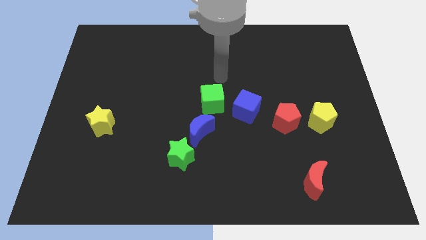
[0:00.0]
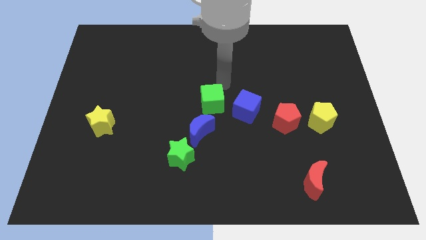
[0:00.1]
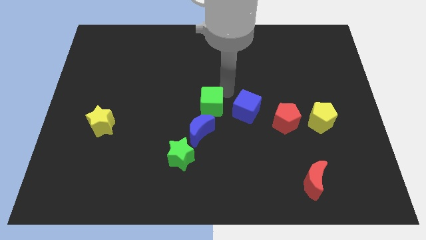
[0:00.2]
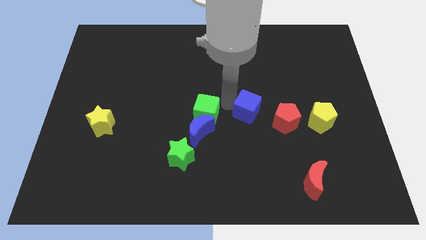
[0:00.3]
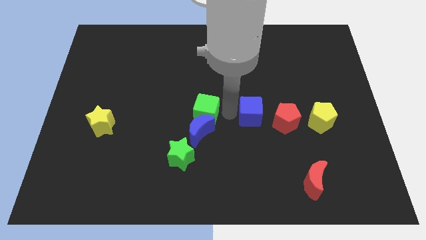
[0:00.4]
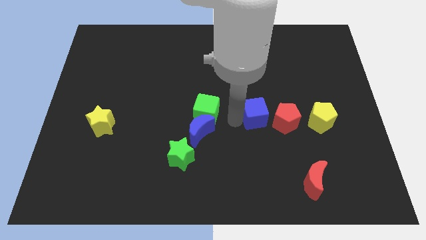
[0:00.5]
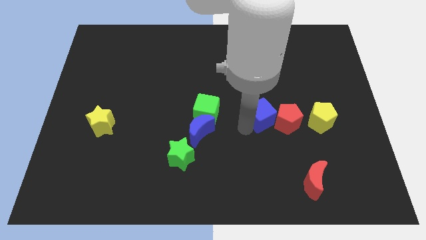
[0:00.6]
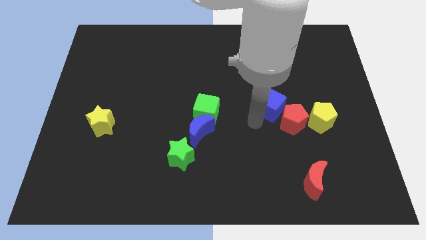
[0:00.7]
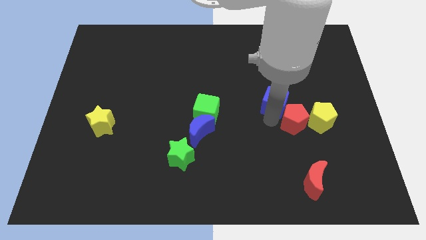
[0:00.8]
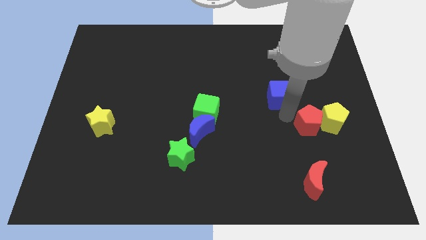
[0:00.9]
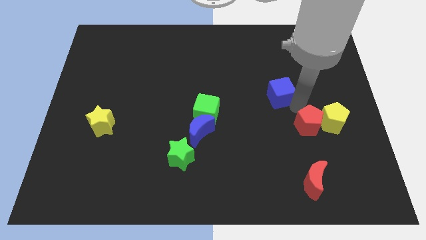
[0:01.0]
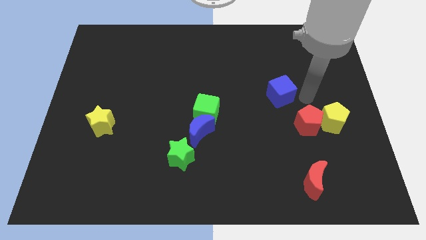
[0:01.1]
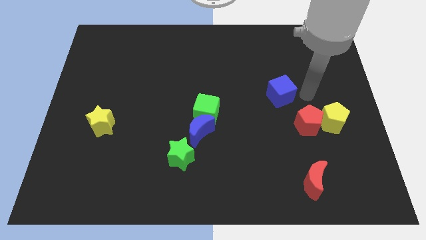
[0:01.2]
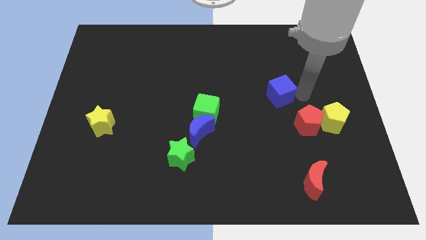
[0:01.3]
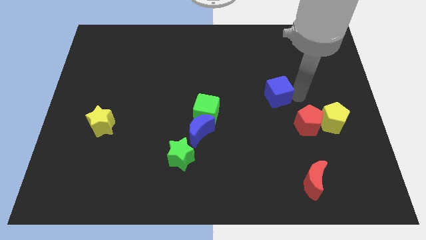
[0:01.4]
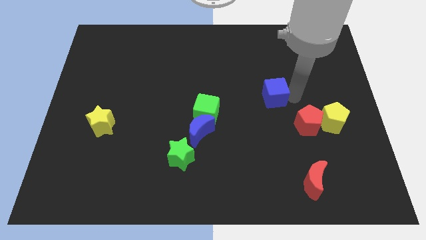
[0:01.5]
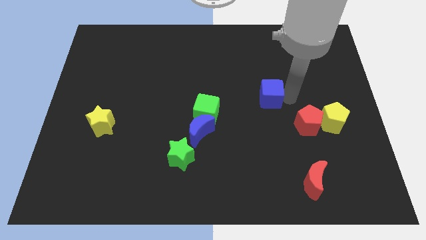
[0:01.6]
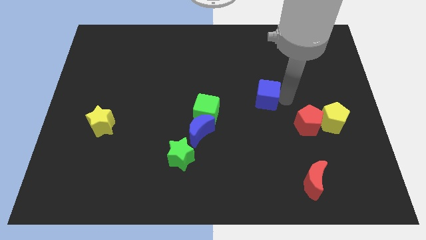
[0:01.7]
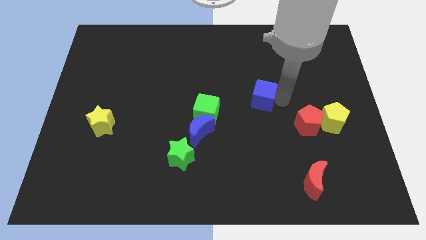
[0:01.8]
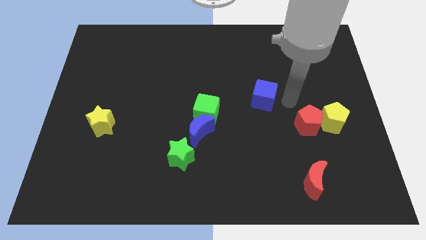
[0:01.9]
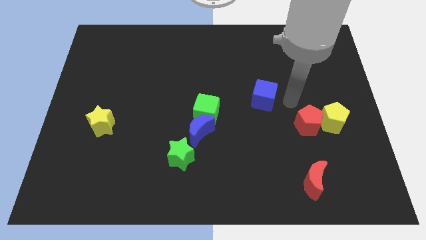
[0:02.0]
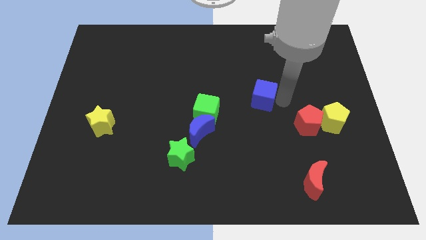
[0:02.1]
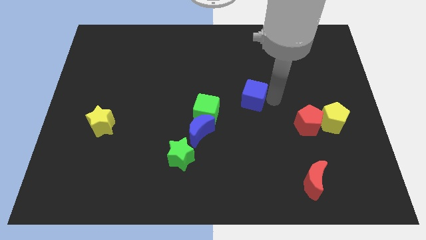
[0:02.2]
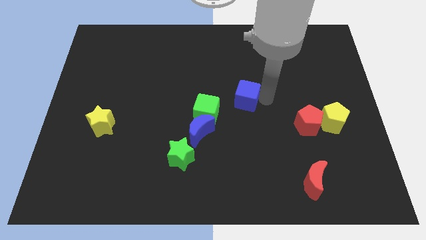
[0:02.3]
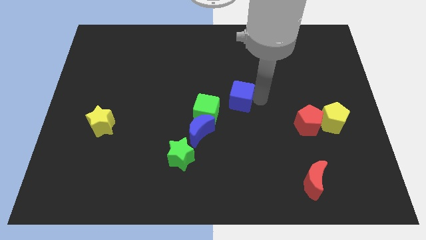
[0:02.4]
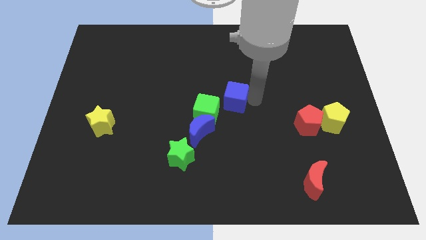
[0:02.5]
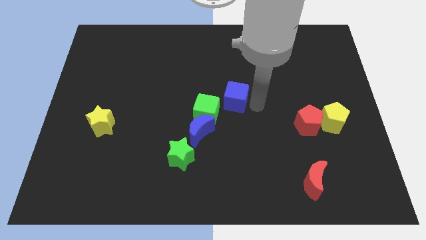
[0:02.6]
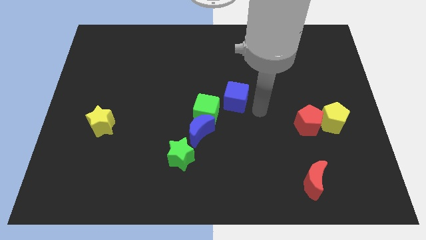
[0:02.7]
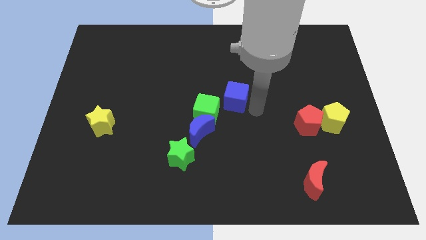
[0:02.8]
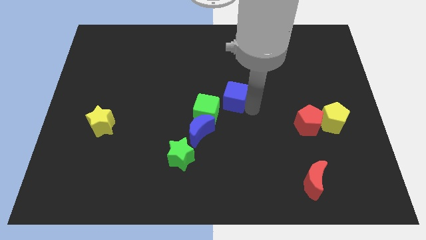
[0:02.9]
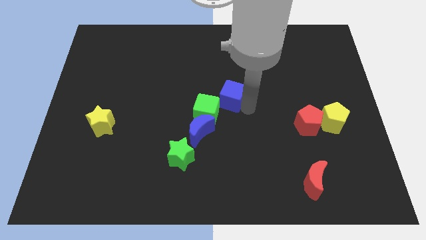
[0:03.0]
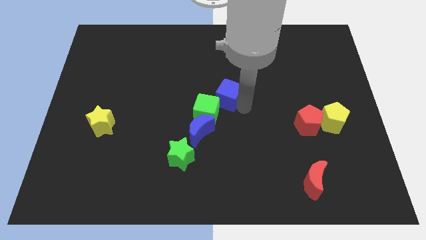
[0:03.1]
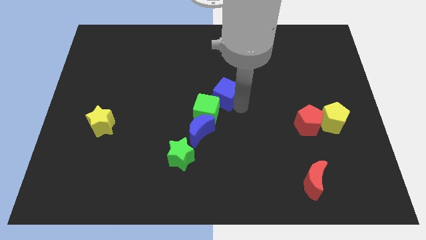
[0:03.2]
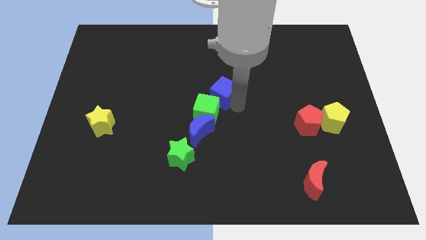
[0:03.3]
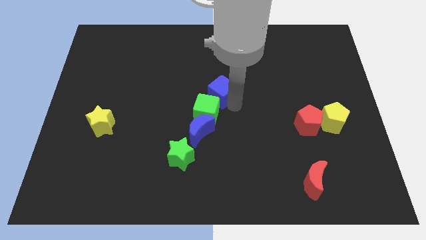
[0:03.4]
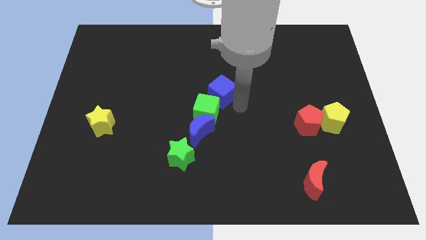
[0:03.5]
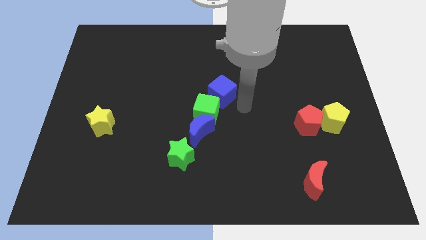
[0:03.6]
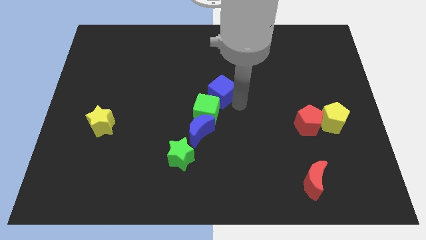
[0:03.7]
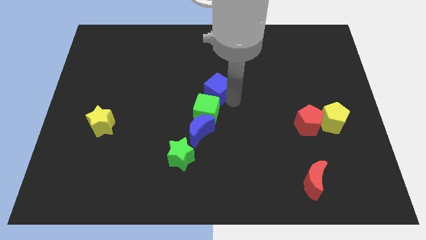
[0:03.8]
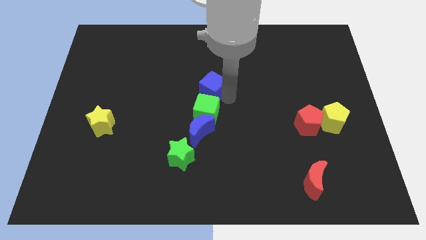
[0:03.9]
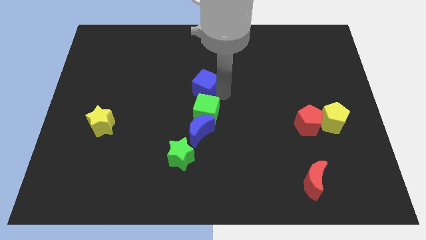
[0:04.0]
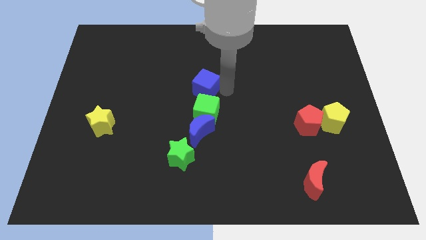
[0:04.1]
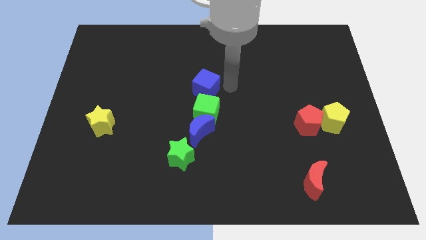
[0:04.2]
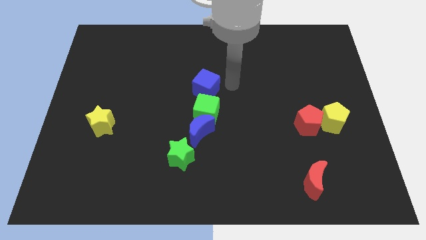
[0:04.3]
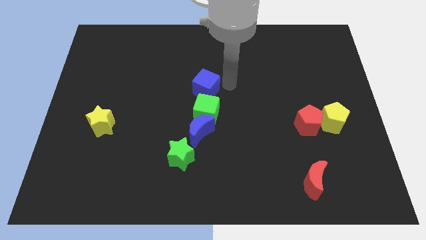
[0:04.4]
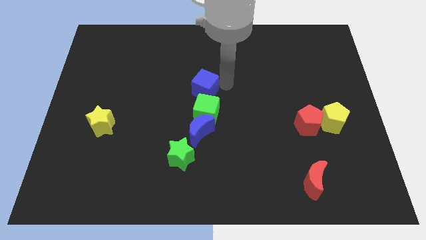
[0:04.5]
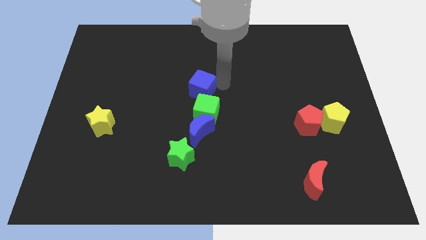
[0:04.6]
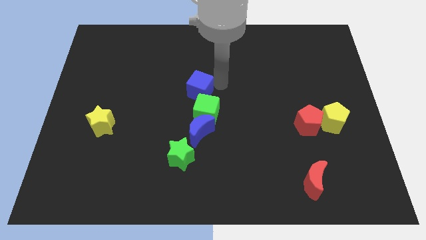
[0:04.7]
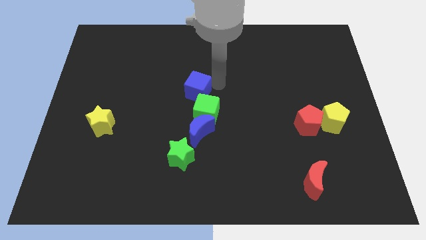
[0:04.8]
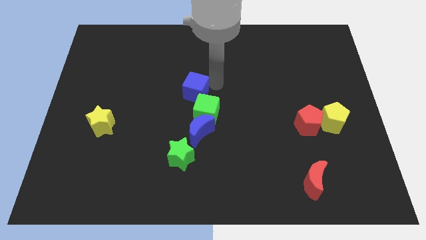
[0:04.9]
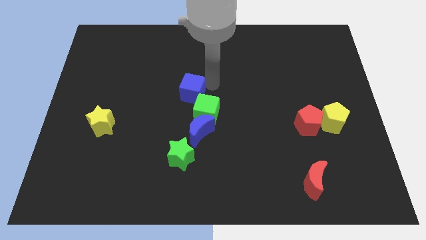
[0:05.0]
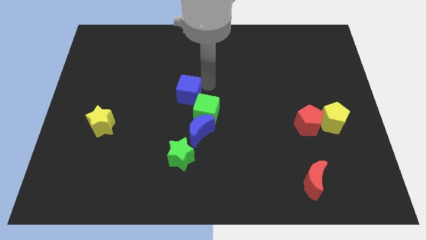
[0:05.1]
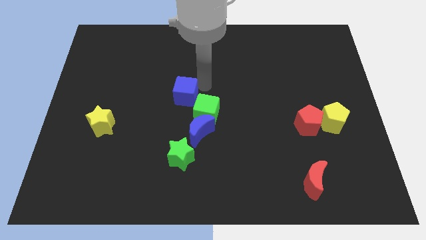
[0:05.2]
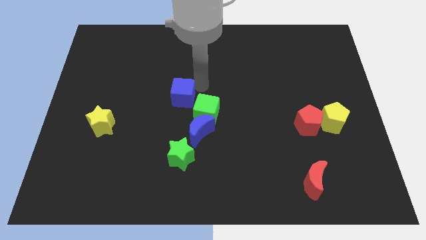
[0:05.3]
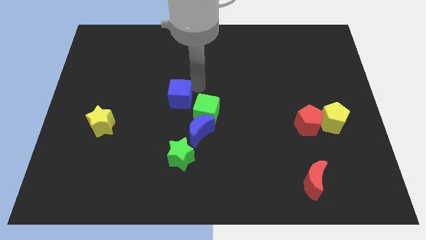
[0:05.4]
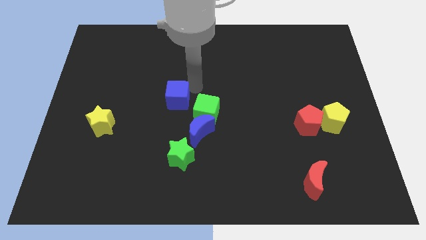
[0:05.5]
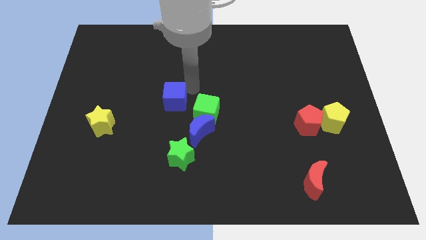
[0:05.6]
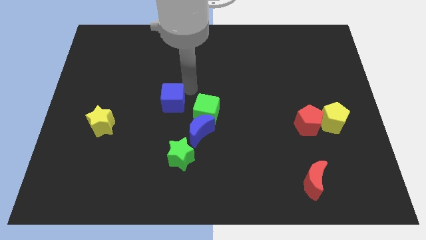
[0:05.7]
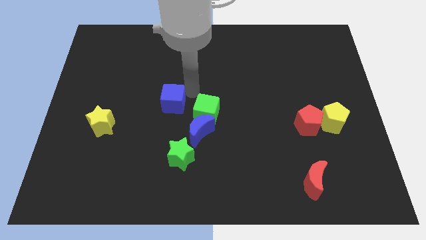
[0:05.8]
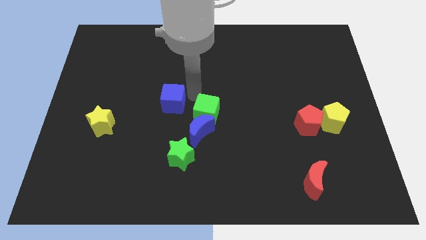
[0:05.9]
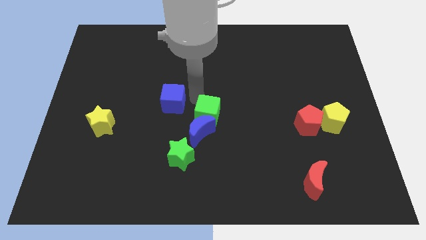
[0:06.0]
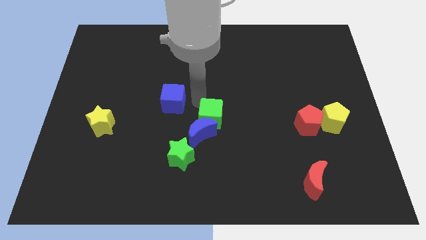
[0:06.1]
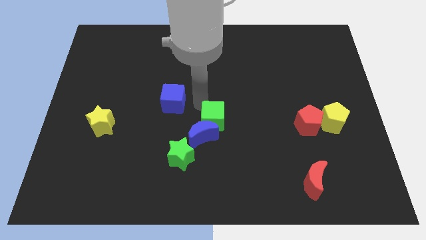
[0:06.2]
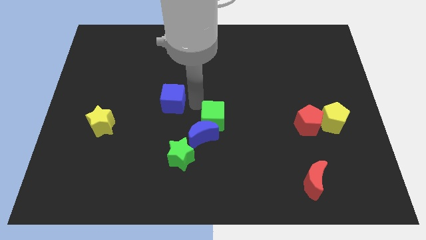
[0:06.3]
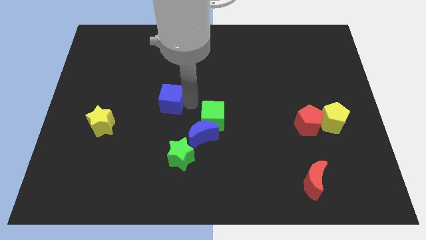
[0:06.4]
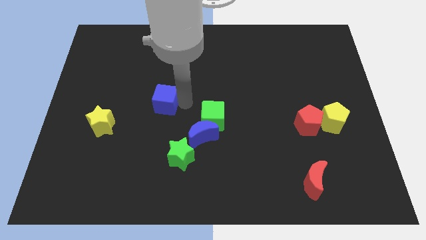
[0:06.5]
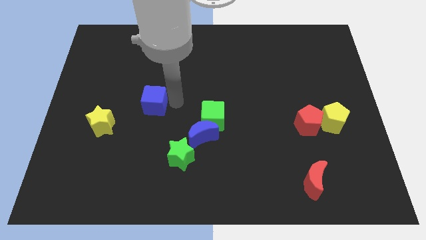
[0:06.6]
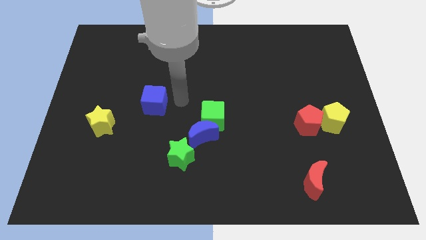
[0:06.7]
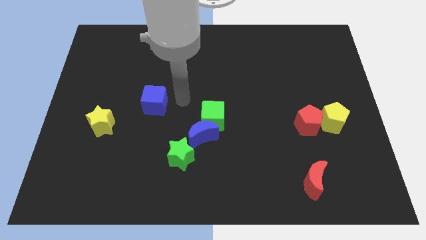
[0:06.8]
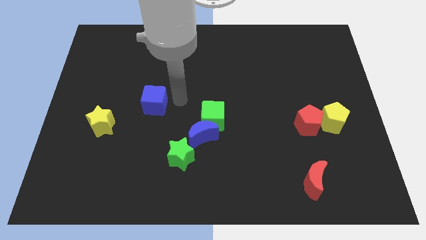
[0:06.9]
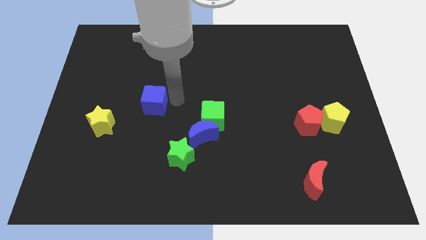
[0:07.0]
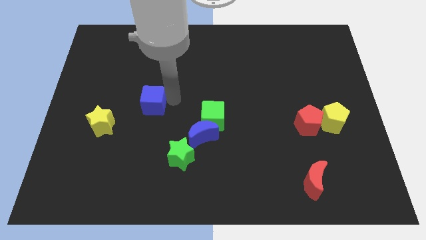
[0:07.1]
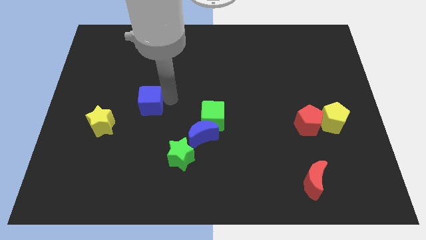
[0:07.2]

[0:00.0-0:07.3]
put the blue cube diagonally up and to the right of the yellow star
